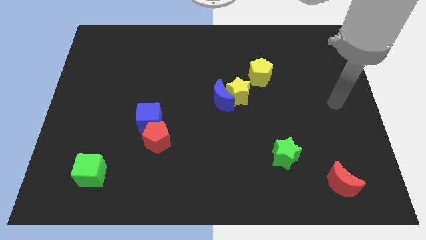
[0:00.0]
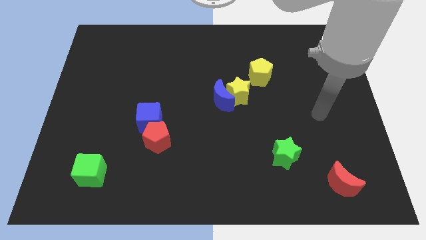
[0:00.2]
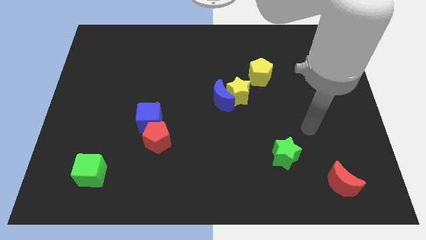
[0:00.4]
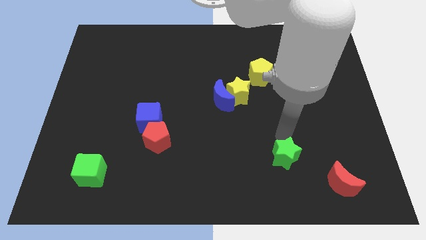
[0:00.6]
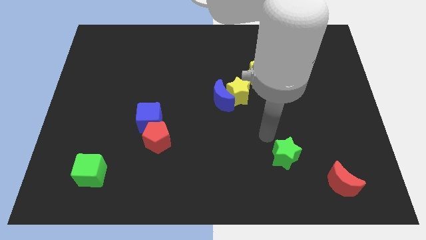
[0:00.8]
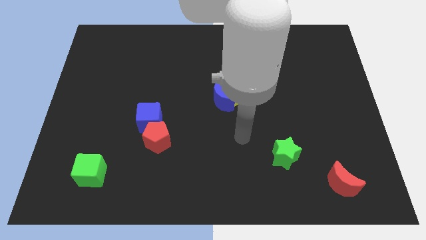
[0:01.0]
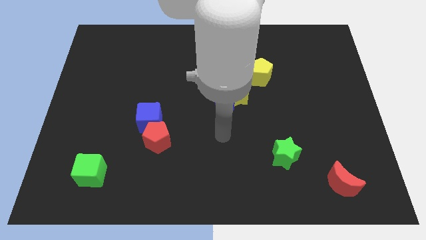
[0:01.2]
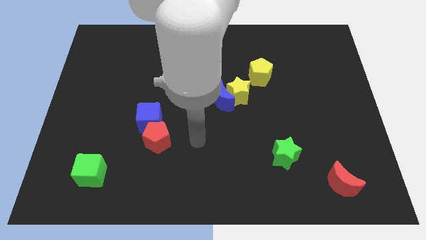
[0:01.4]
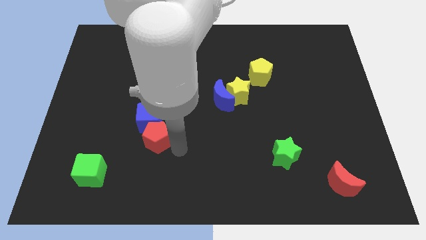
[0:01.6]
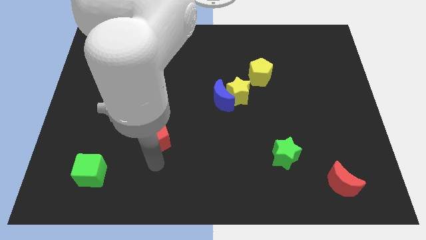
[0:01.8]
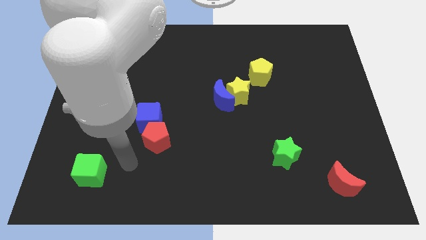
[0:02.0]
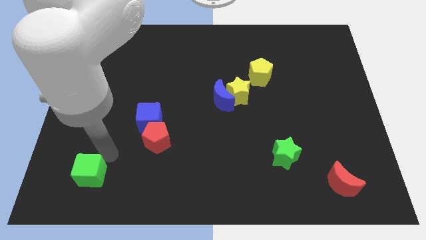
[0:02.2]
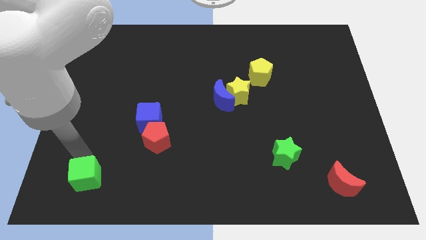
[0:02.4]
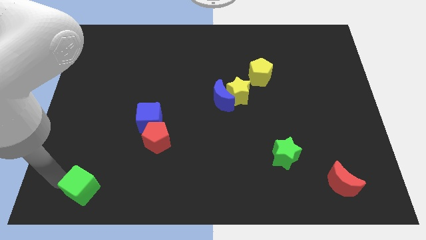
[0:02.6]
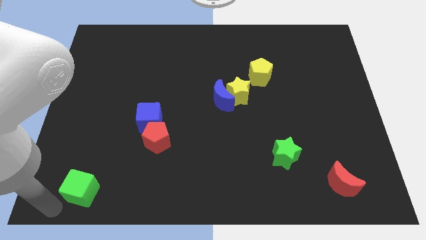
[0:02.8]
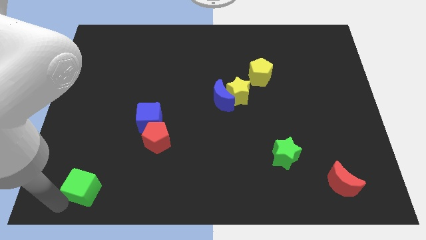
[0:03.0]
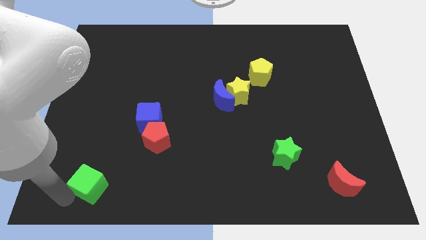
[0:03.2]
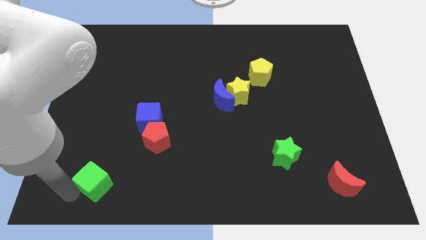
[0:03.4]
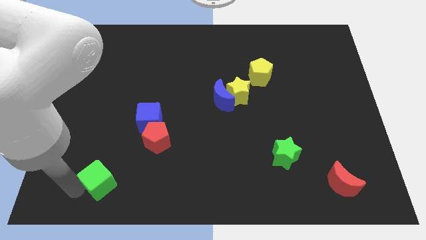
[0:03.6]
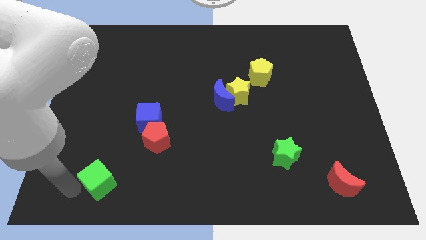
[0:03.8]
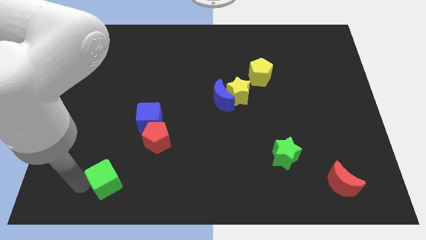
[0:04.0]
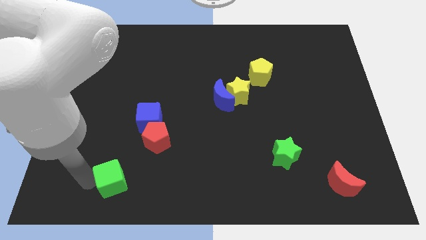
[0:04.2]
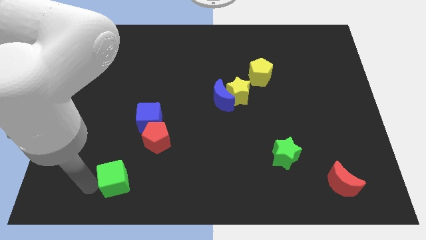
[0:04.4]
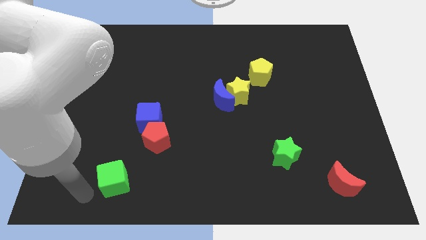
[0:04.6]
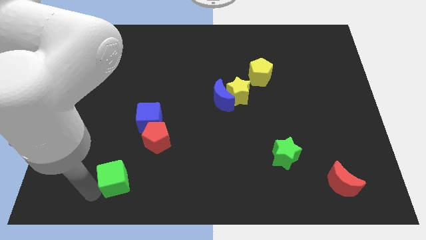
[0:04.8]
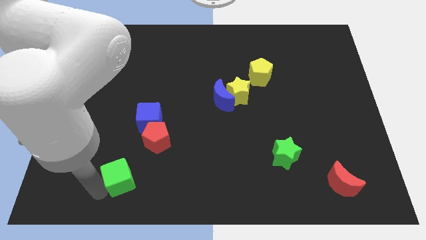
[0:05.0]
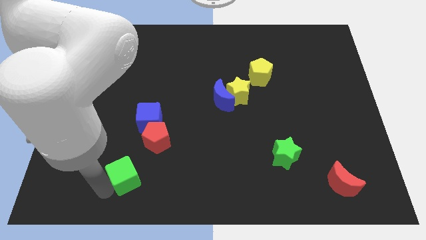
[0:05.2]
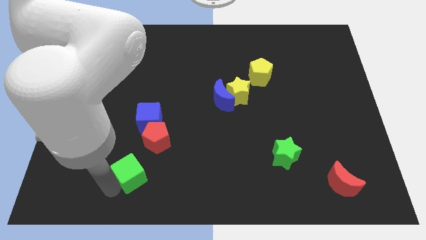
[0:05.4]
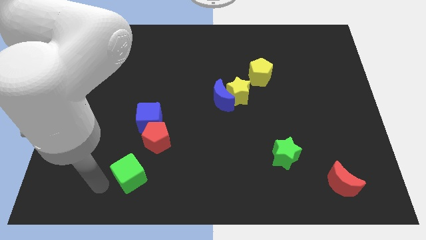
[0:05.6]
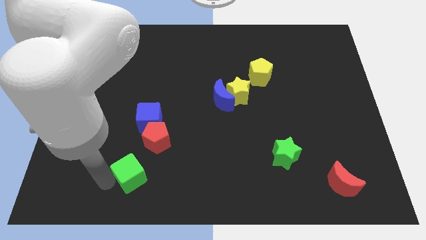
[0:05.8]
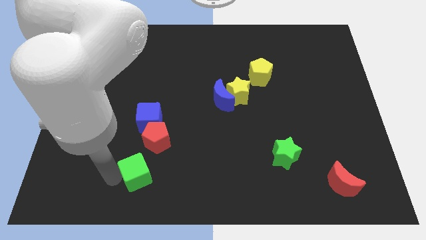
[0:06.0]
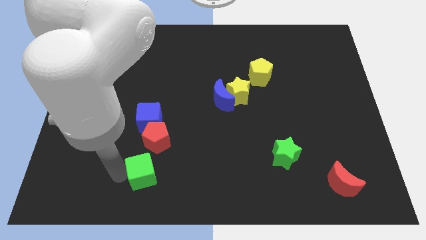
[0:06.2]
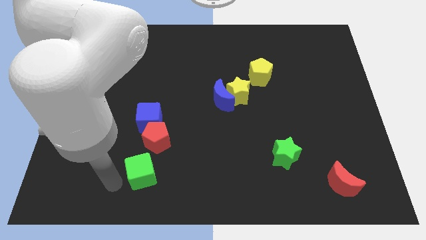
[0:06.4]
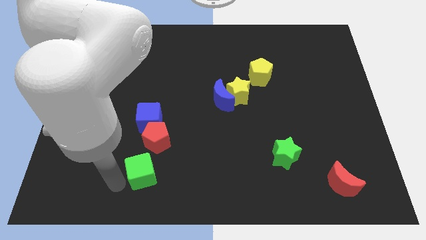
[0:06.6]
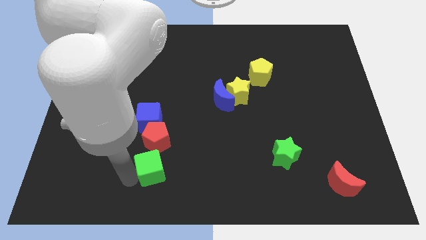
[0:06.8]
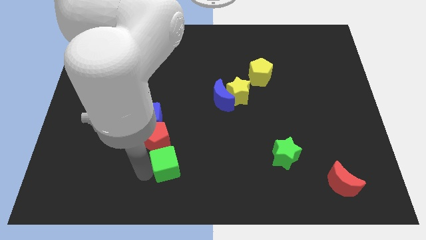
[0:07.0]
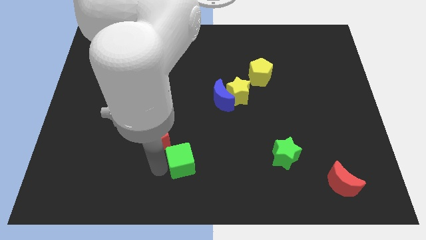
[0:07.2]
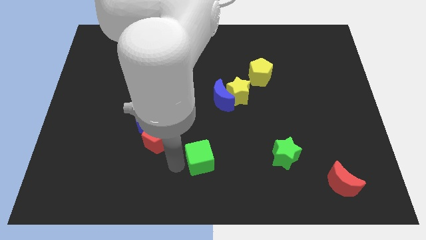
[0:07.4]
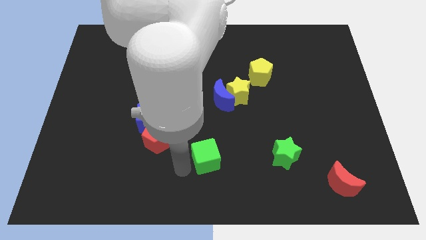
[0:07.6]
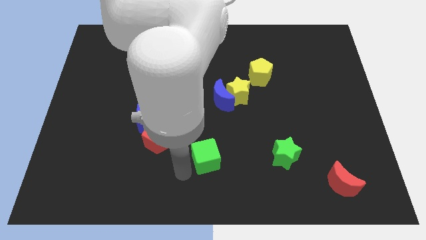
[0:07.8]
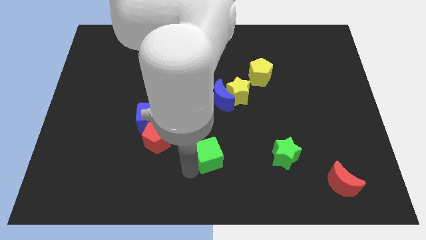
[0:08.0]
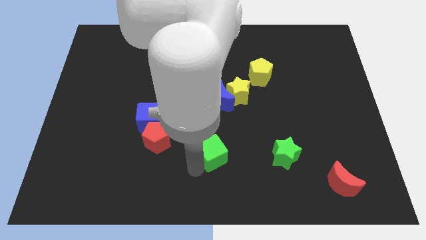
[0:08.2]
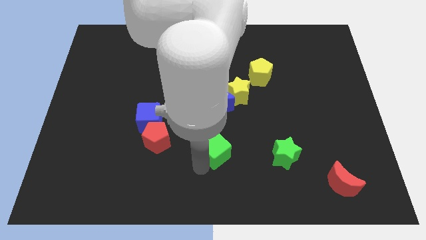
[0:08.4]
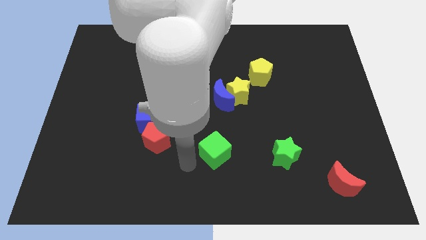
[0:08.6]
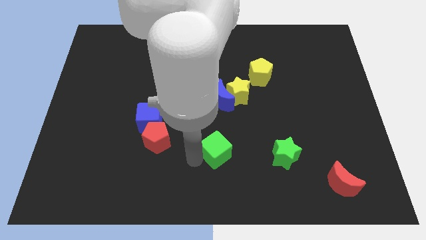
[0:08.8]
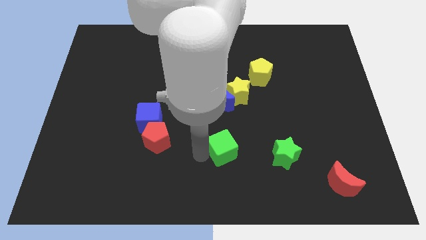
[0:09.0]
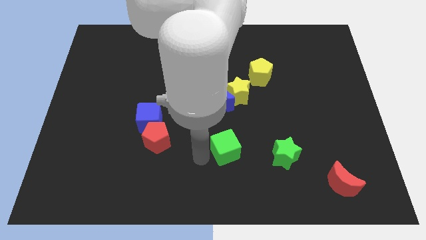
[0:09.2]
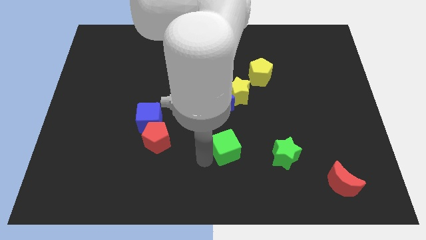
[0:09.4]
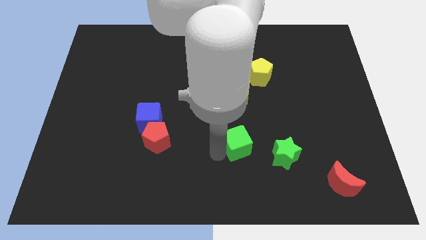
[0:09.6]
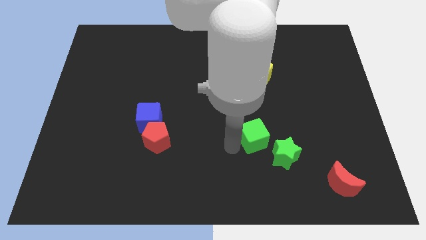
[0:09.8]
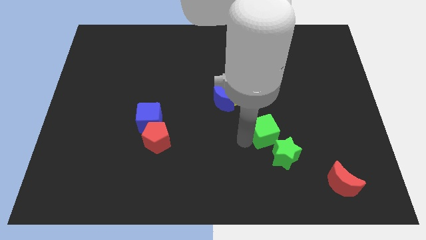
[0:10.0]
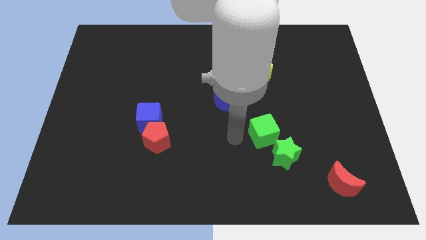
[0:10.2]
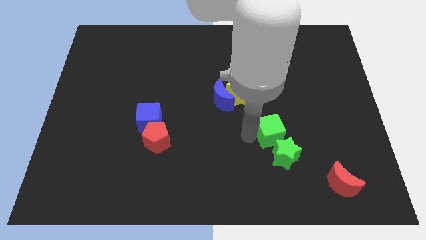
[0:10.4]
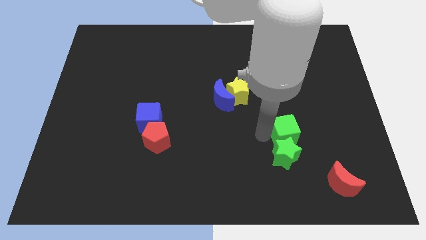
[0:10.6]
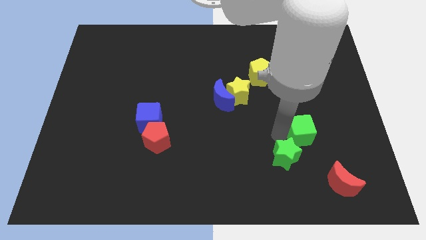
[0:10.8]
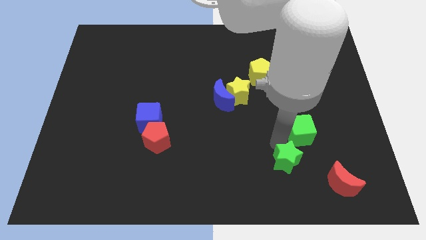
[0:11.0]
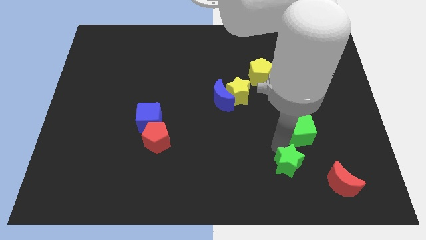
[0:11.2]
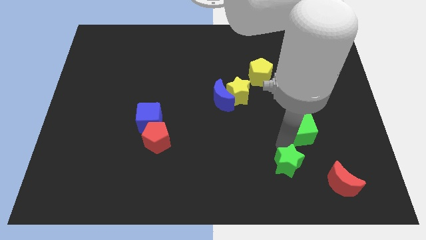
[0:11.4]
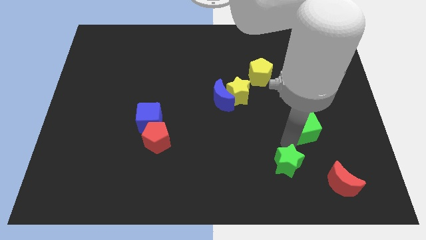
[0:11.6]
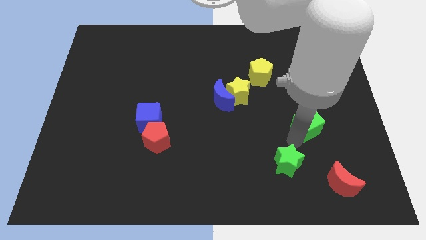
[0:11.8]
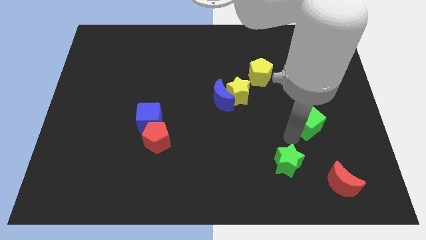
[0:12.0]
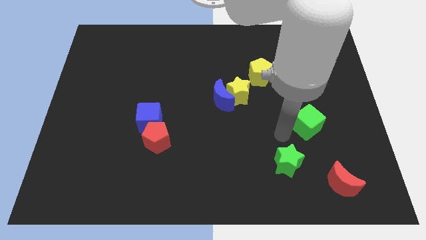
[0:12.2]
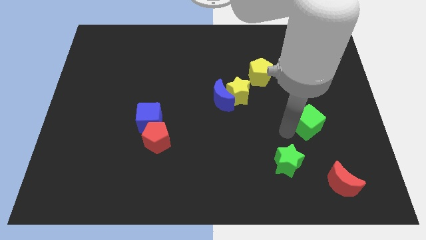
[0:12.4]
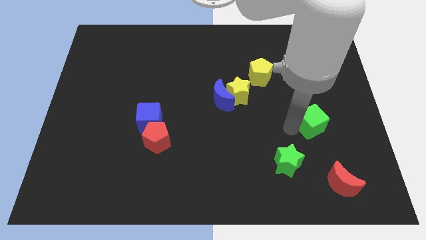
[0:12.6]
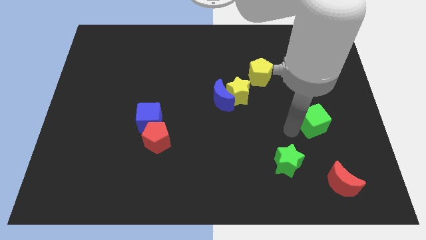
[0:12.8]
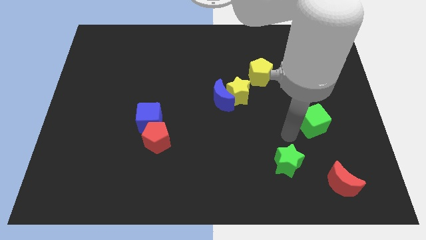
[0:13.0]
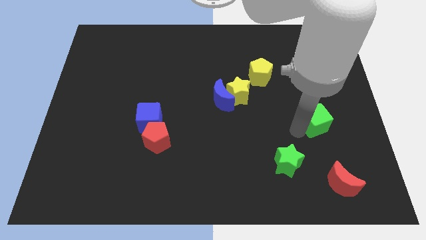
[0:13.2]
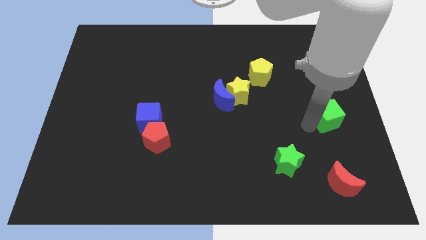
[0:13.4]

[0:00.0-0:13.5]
slide the green cube to the center right

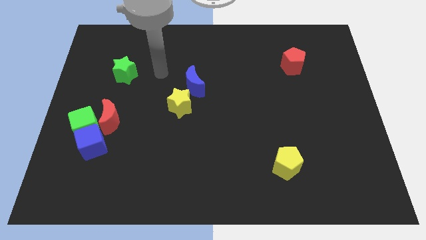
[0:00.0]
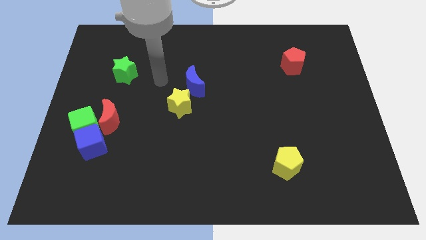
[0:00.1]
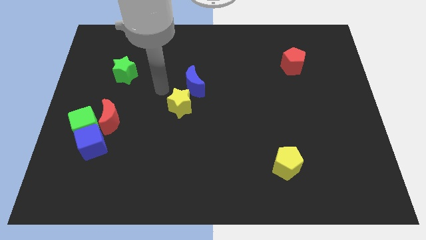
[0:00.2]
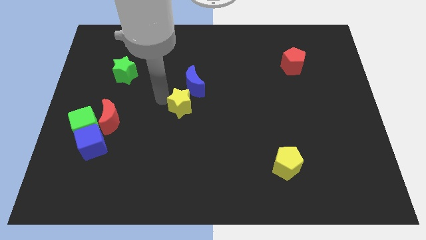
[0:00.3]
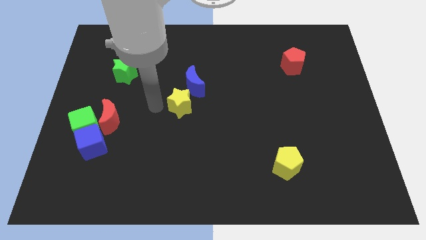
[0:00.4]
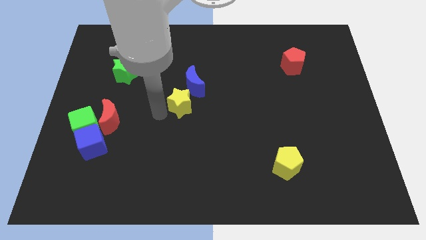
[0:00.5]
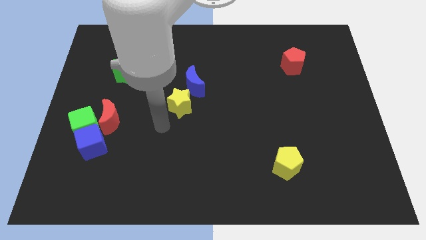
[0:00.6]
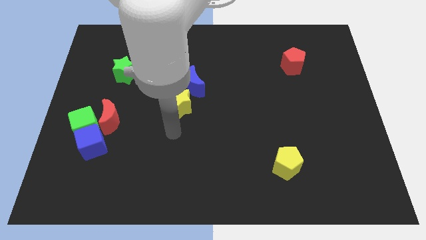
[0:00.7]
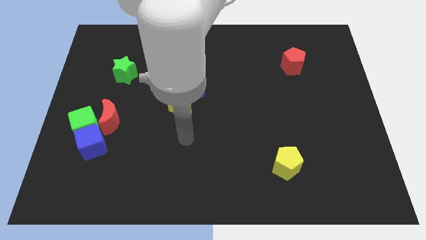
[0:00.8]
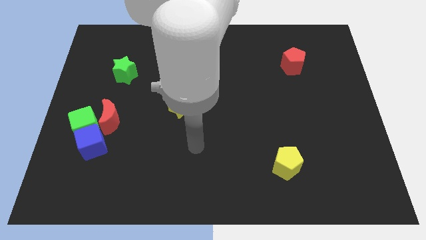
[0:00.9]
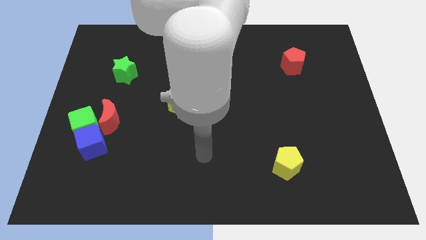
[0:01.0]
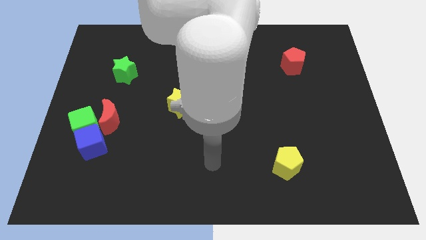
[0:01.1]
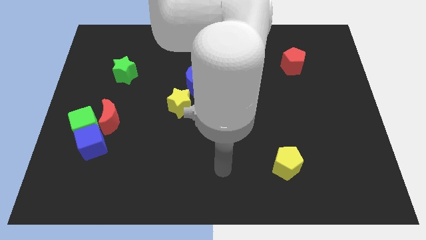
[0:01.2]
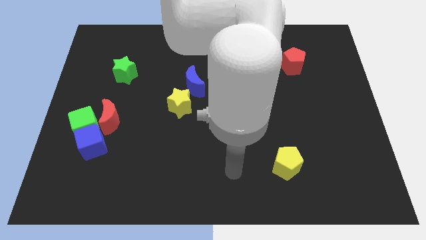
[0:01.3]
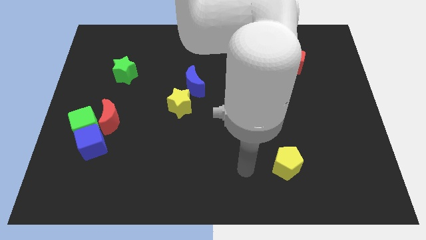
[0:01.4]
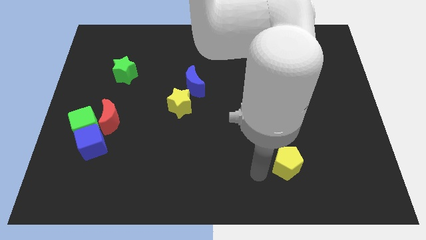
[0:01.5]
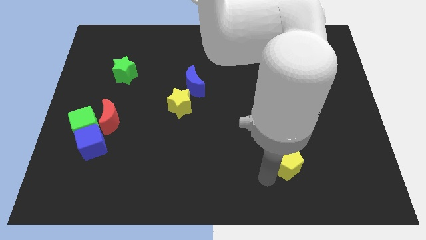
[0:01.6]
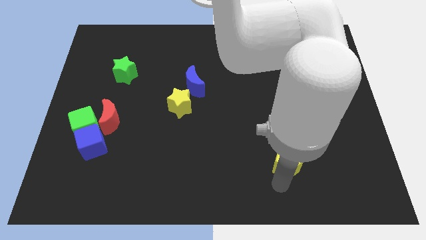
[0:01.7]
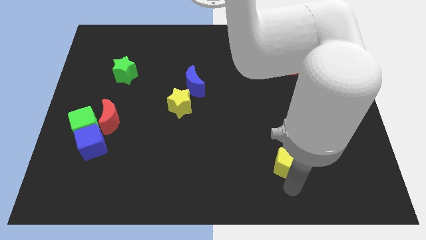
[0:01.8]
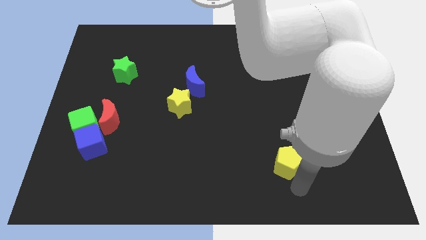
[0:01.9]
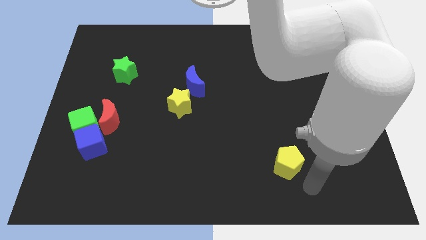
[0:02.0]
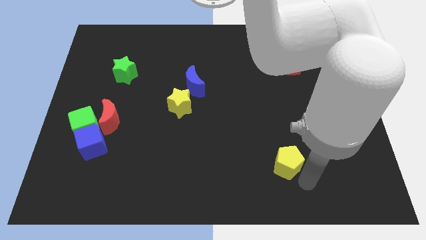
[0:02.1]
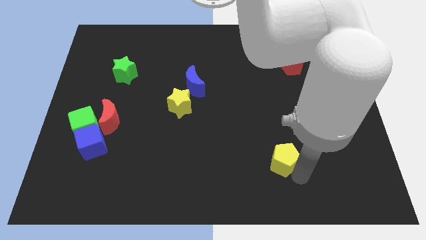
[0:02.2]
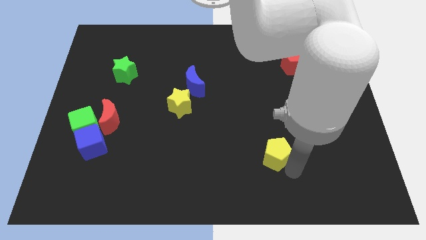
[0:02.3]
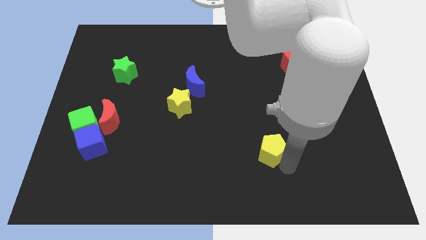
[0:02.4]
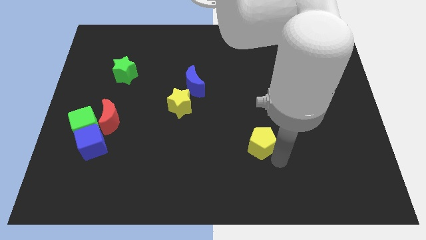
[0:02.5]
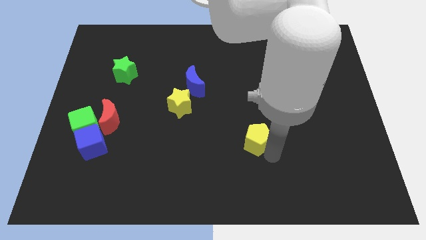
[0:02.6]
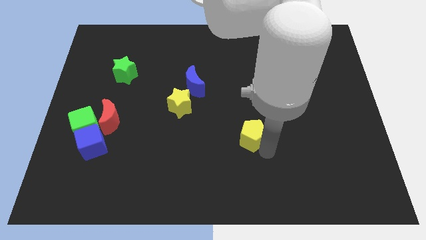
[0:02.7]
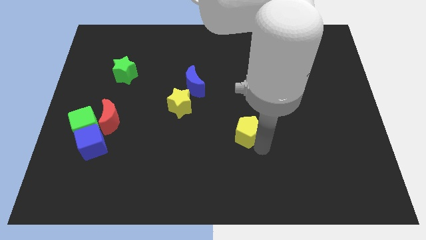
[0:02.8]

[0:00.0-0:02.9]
put the yellow pentagon to the center
